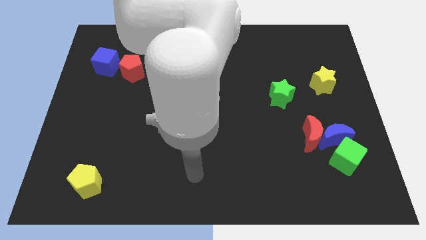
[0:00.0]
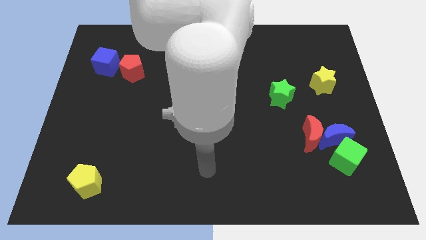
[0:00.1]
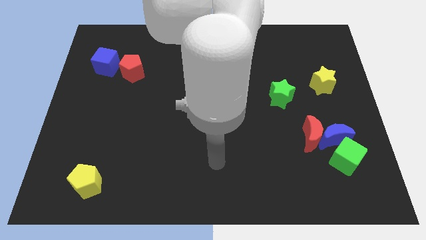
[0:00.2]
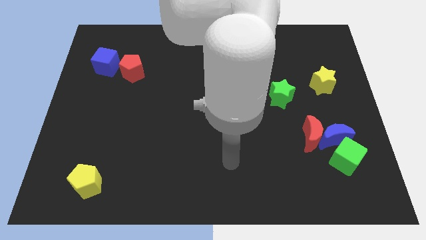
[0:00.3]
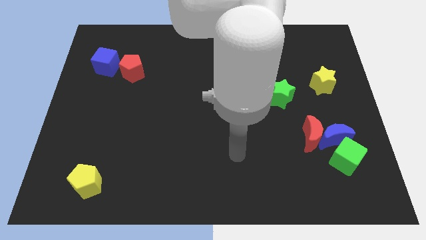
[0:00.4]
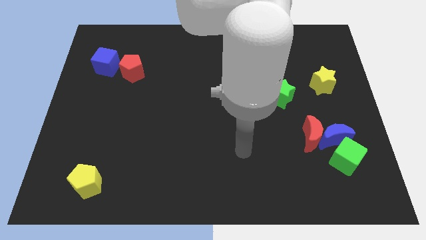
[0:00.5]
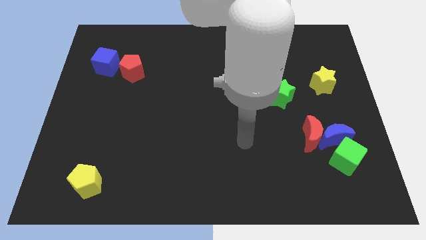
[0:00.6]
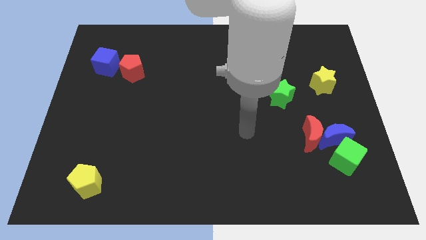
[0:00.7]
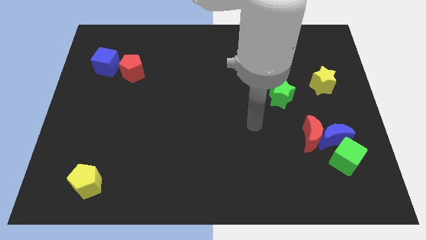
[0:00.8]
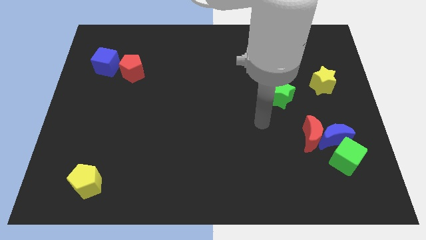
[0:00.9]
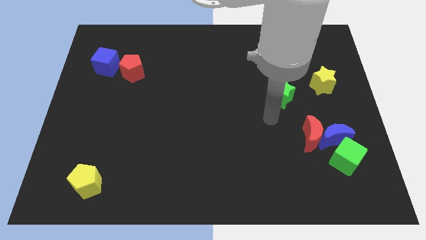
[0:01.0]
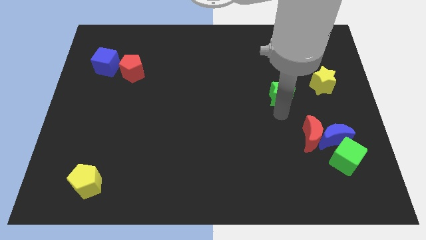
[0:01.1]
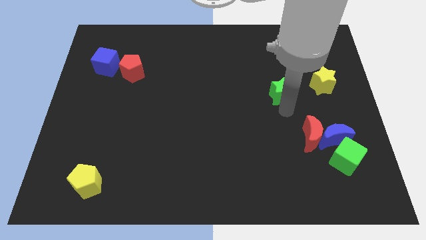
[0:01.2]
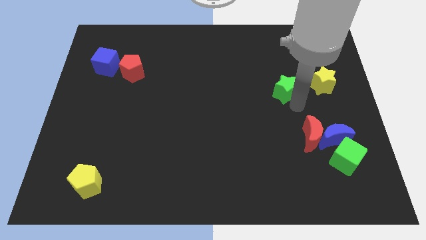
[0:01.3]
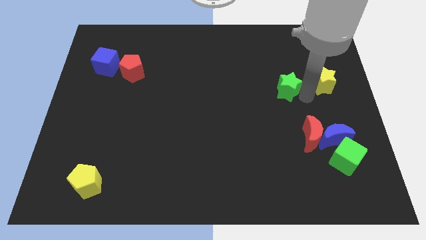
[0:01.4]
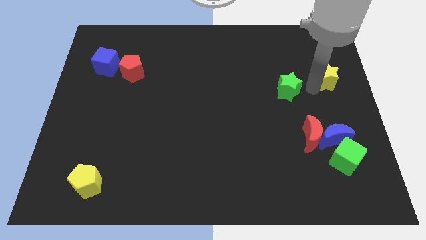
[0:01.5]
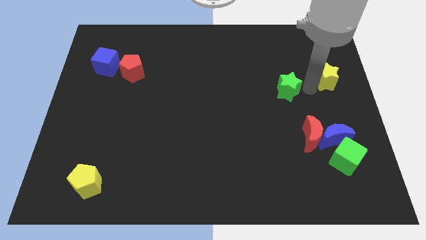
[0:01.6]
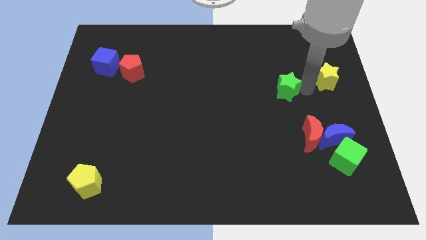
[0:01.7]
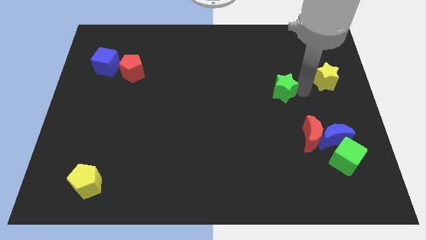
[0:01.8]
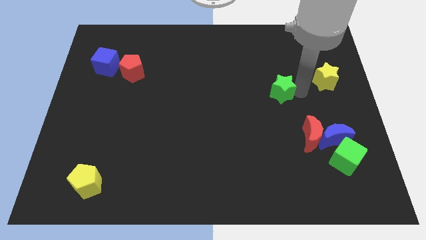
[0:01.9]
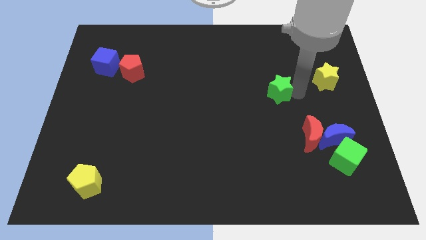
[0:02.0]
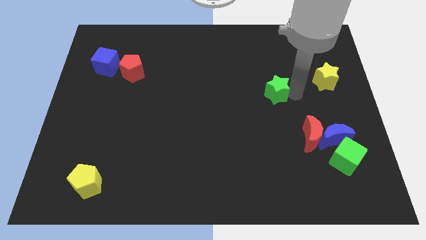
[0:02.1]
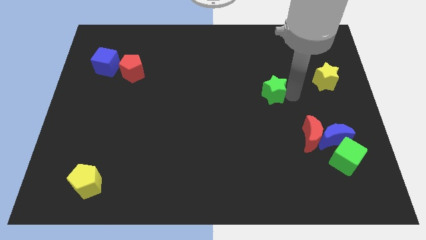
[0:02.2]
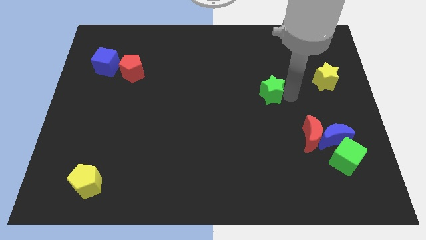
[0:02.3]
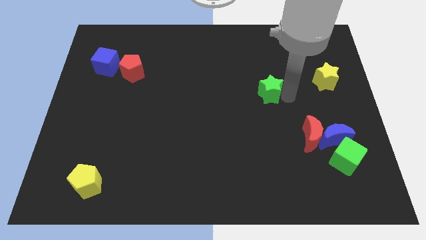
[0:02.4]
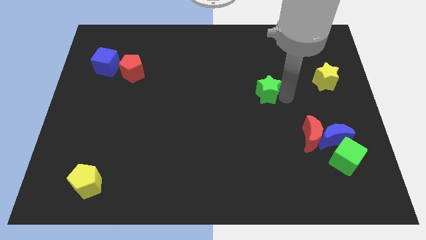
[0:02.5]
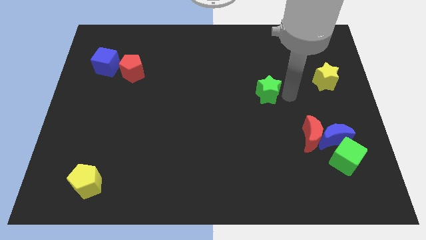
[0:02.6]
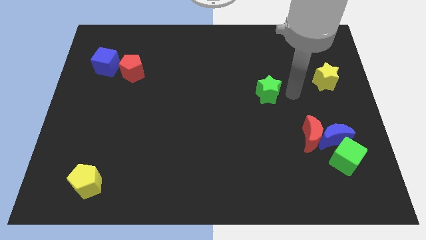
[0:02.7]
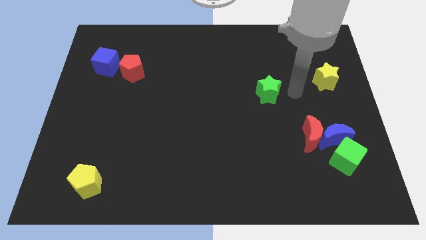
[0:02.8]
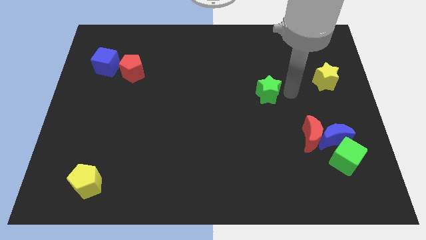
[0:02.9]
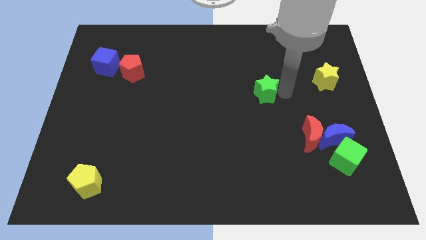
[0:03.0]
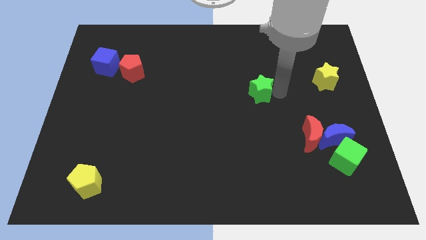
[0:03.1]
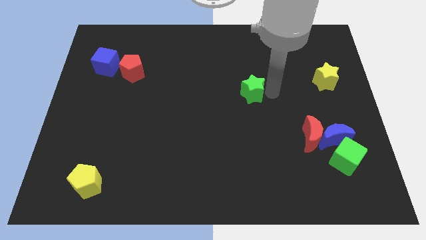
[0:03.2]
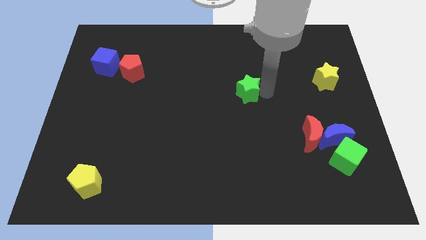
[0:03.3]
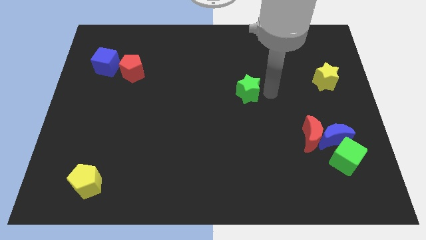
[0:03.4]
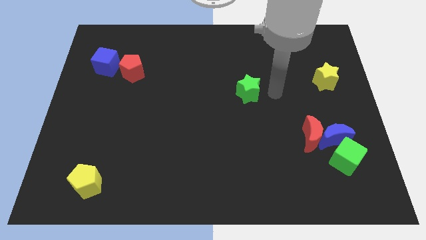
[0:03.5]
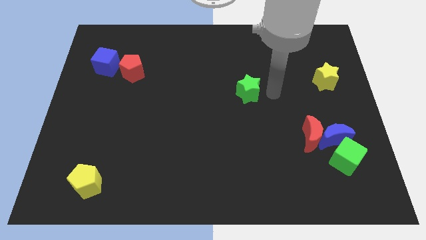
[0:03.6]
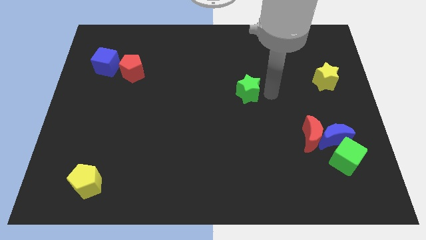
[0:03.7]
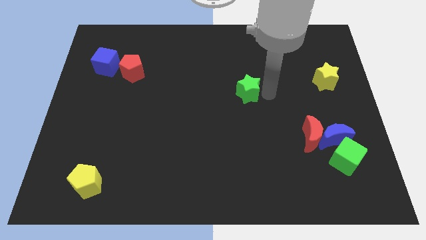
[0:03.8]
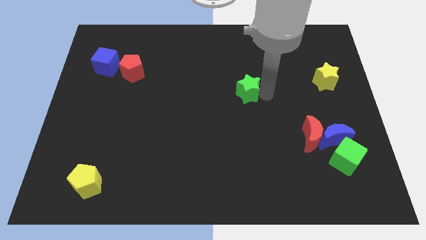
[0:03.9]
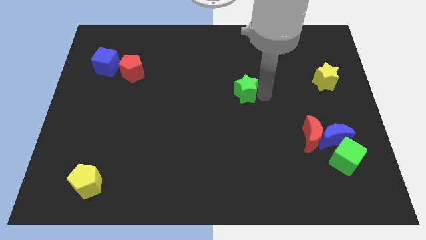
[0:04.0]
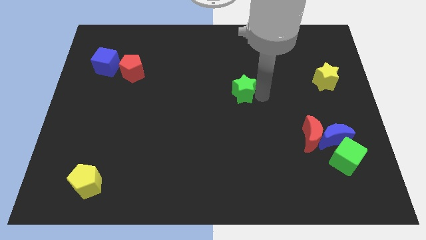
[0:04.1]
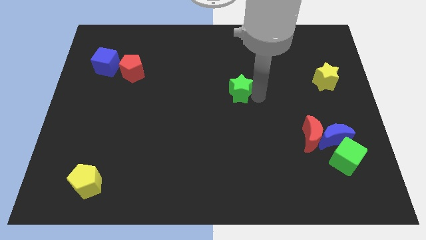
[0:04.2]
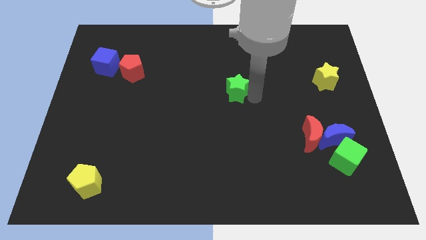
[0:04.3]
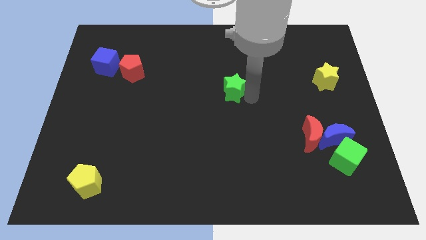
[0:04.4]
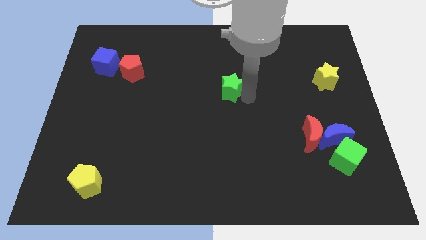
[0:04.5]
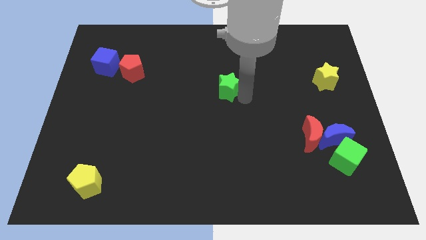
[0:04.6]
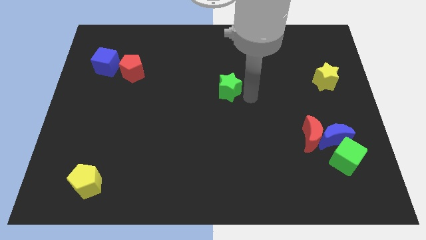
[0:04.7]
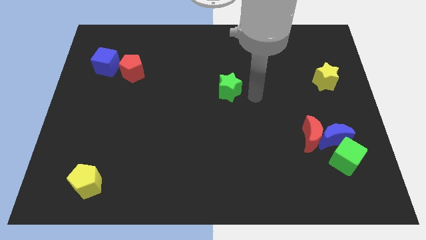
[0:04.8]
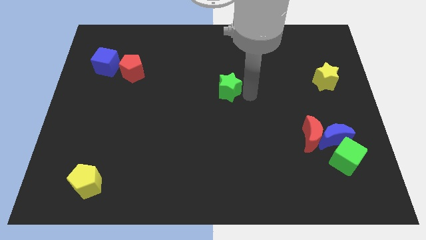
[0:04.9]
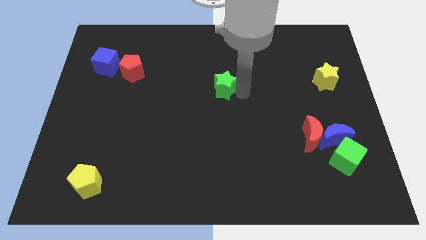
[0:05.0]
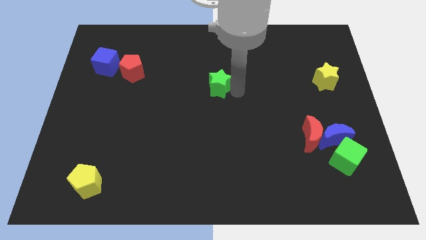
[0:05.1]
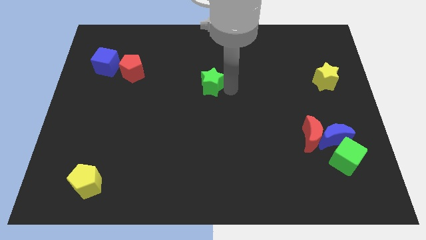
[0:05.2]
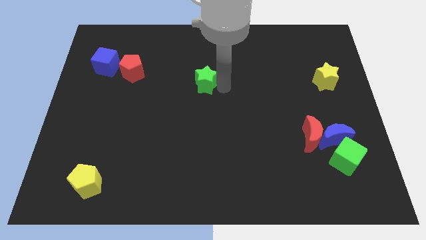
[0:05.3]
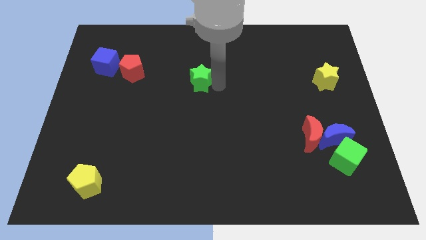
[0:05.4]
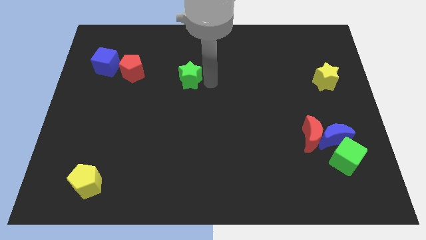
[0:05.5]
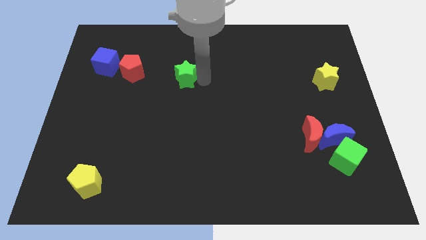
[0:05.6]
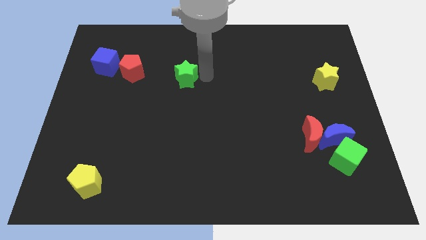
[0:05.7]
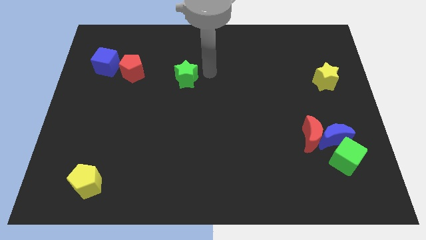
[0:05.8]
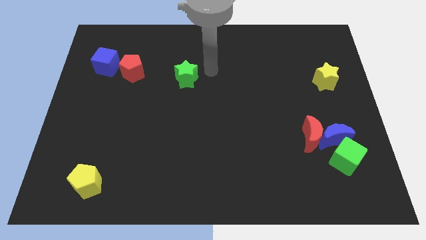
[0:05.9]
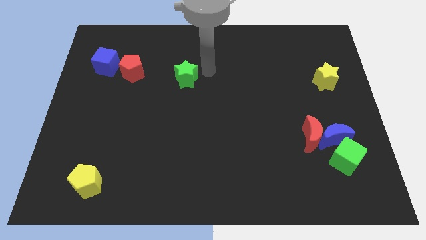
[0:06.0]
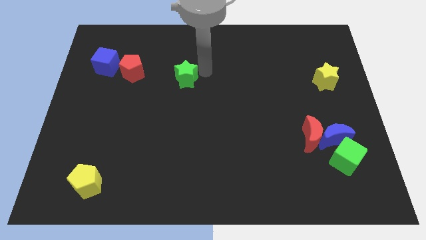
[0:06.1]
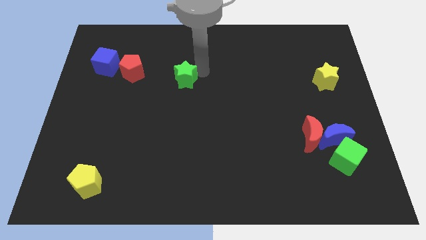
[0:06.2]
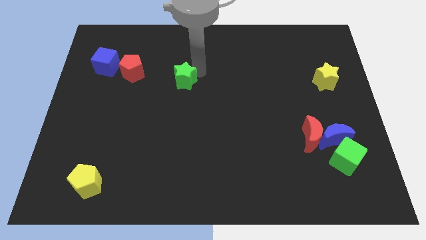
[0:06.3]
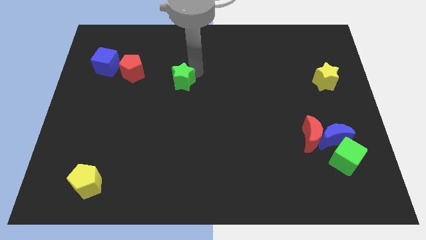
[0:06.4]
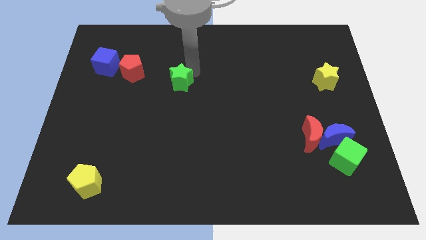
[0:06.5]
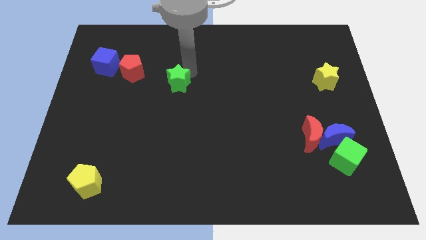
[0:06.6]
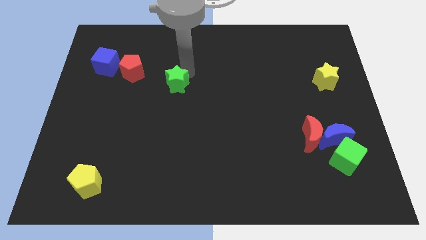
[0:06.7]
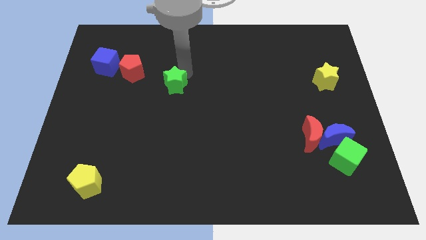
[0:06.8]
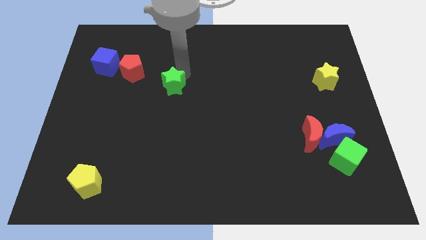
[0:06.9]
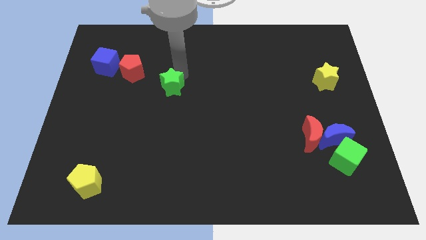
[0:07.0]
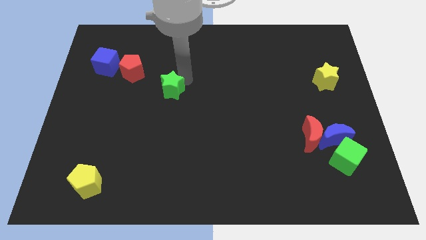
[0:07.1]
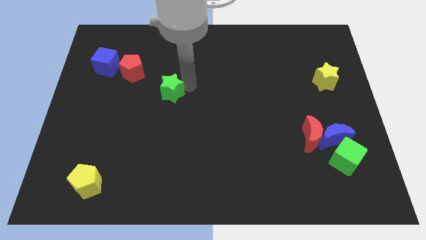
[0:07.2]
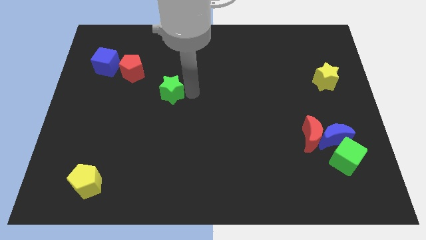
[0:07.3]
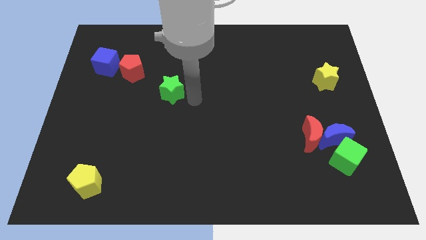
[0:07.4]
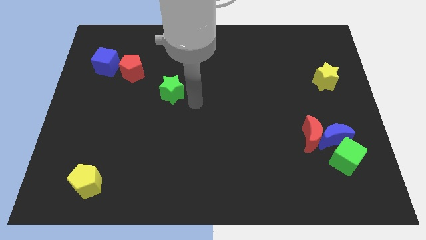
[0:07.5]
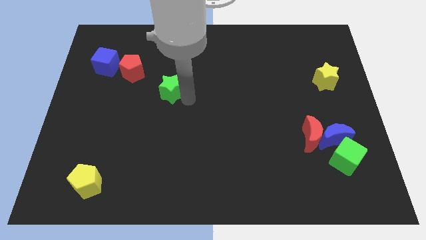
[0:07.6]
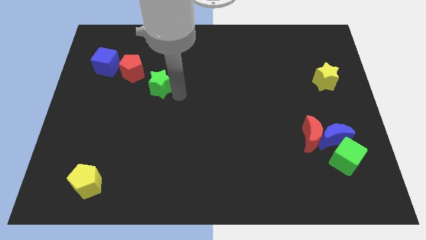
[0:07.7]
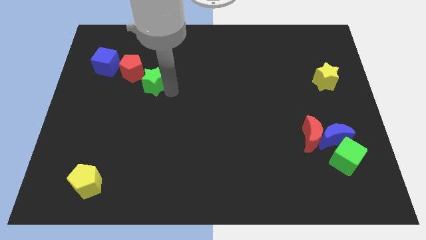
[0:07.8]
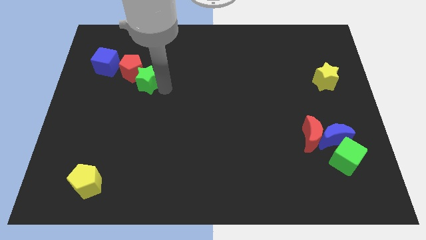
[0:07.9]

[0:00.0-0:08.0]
slide the green star towards the red pentagon
